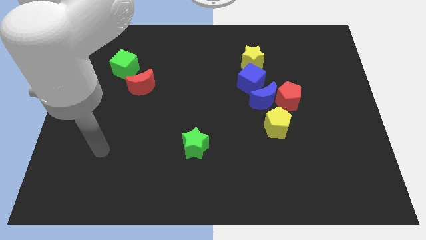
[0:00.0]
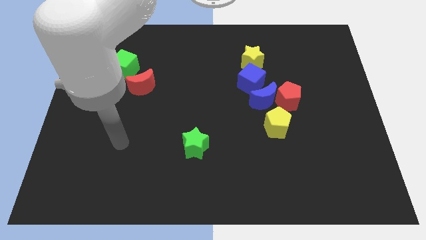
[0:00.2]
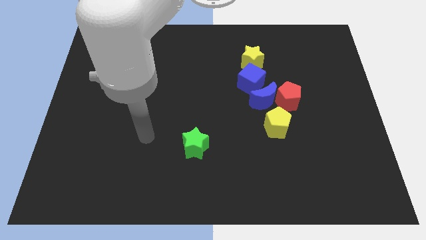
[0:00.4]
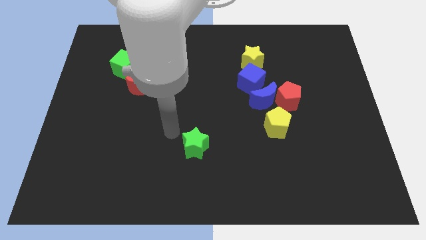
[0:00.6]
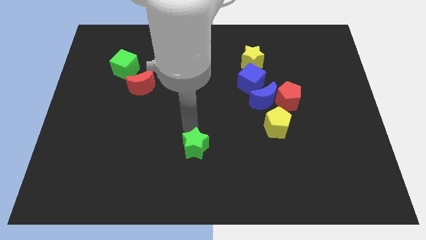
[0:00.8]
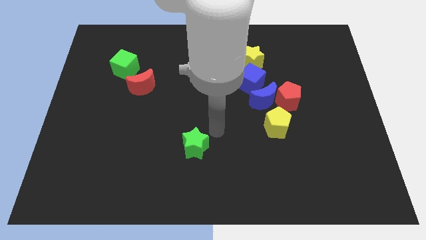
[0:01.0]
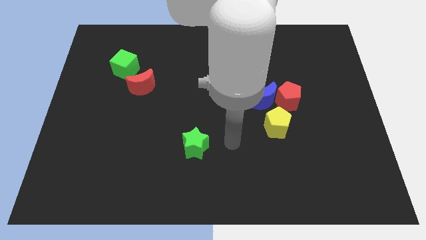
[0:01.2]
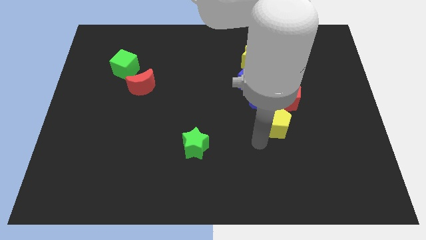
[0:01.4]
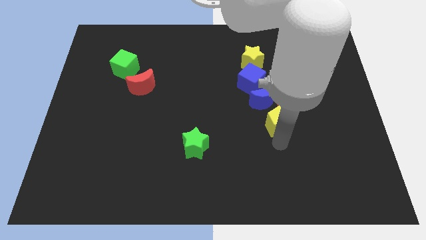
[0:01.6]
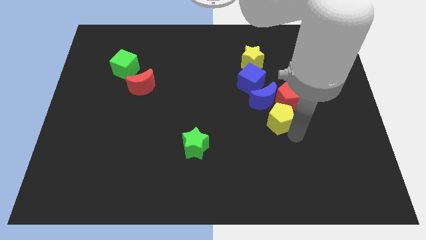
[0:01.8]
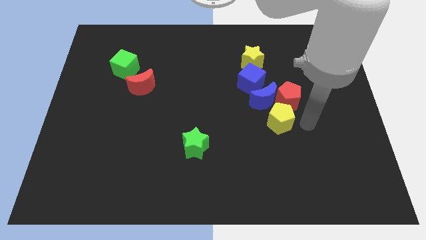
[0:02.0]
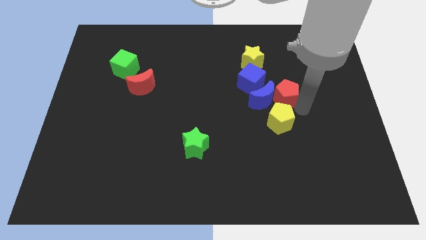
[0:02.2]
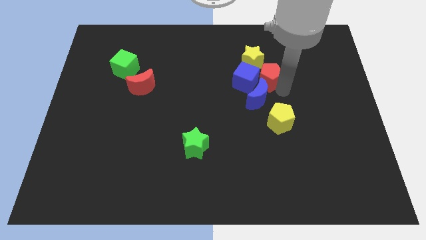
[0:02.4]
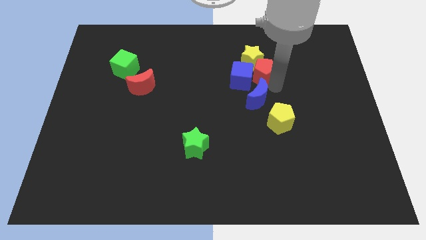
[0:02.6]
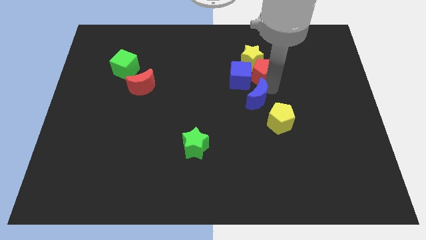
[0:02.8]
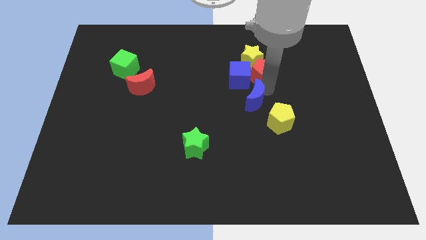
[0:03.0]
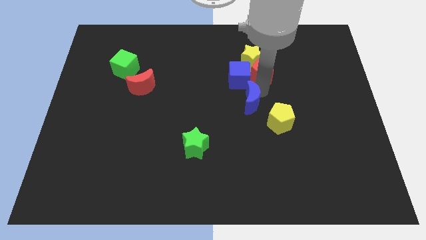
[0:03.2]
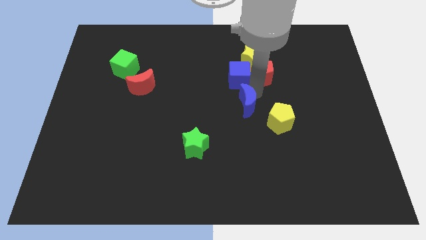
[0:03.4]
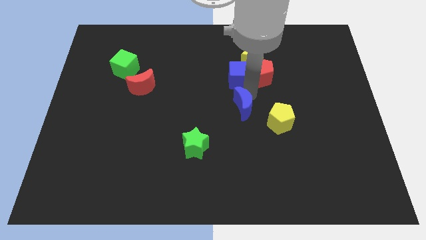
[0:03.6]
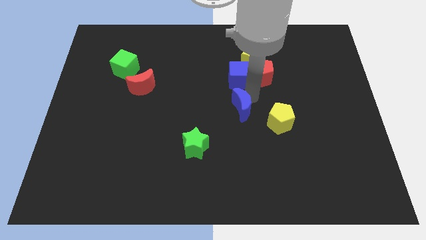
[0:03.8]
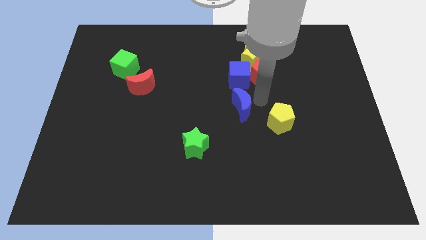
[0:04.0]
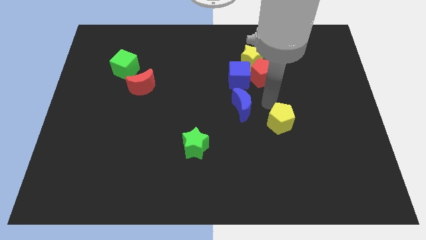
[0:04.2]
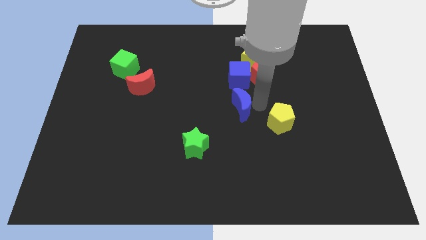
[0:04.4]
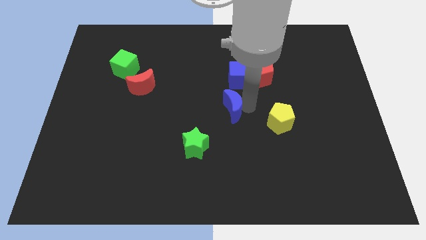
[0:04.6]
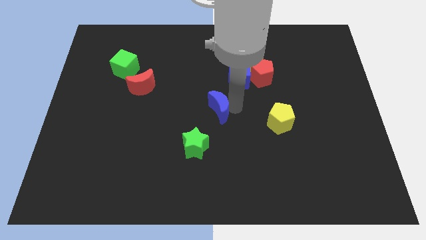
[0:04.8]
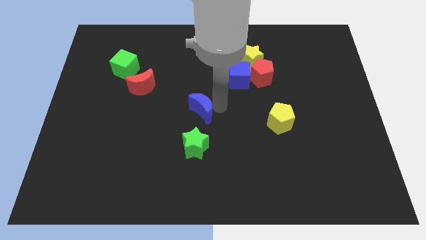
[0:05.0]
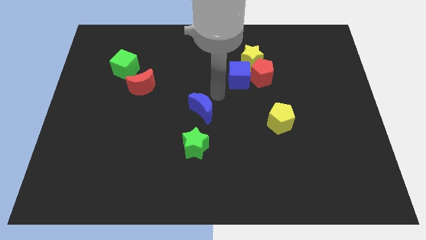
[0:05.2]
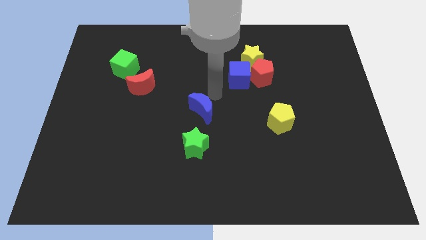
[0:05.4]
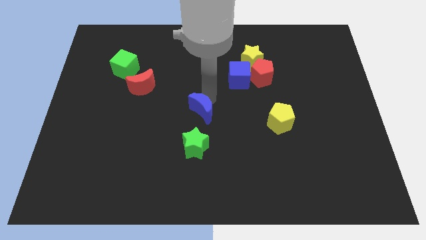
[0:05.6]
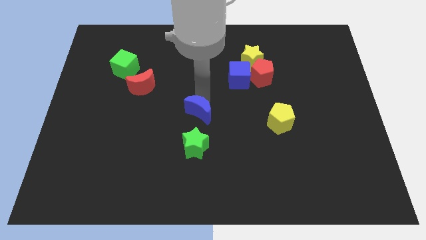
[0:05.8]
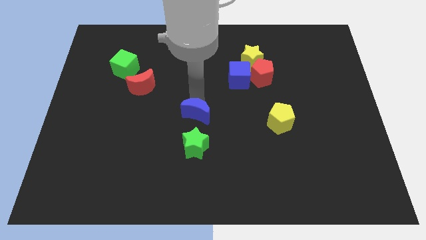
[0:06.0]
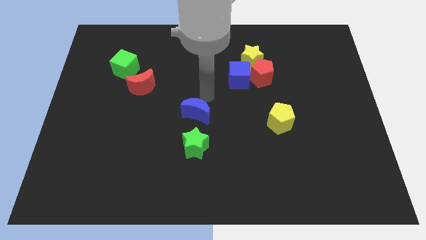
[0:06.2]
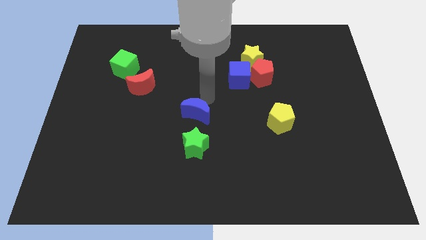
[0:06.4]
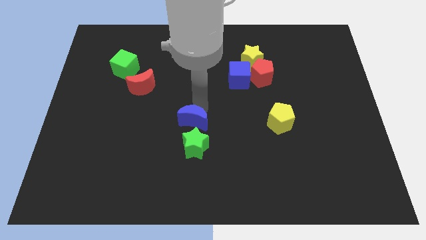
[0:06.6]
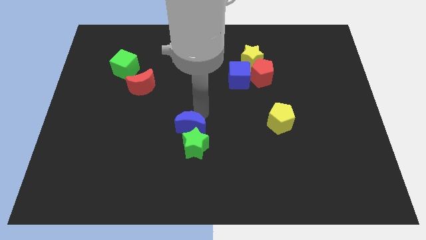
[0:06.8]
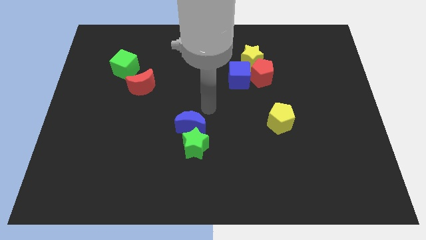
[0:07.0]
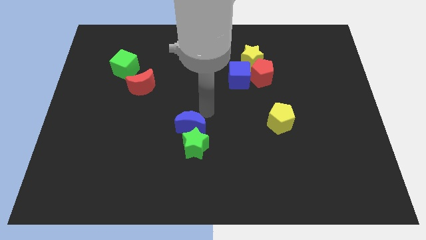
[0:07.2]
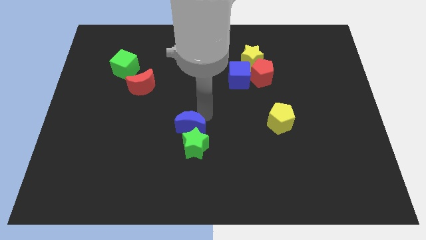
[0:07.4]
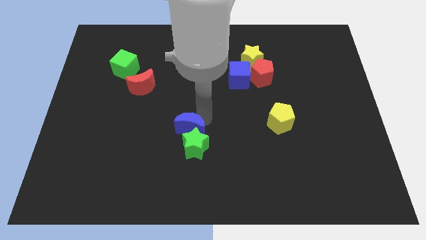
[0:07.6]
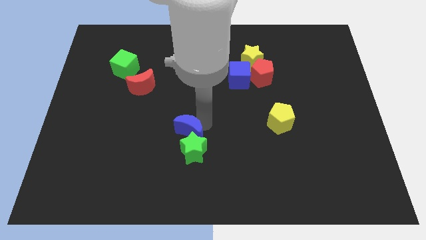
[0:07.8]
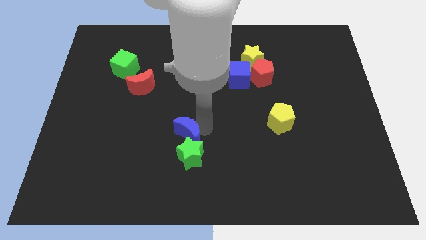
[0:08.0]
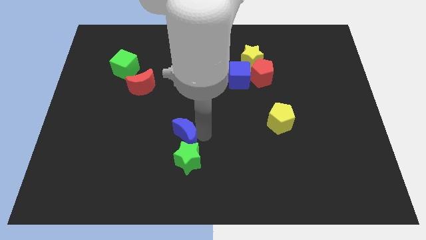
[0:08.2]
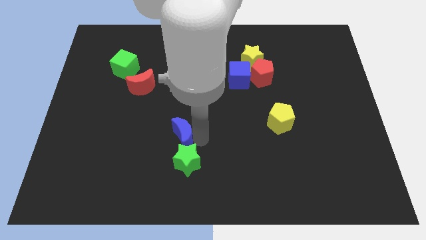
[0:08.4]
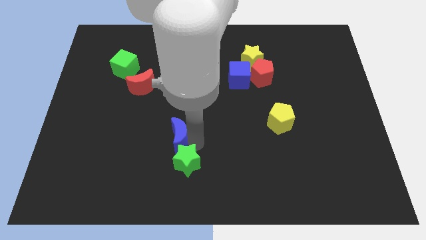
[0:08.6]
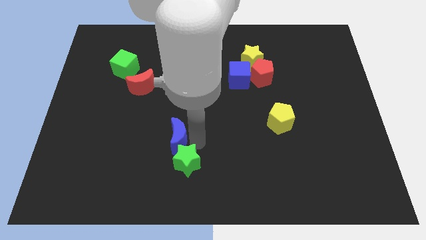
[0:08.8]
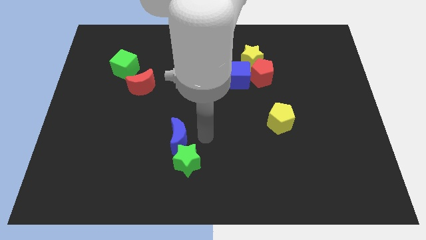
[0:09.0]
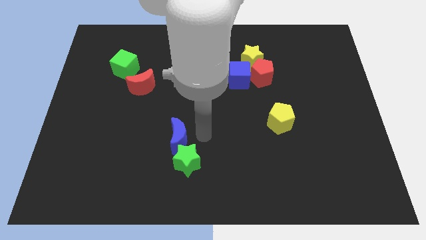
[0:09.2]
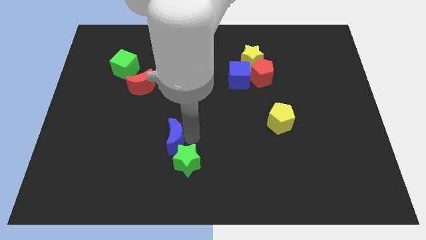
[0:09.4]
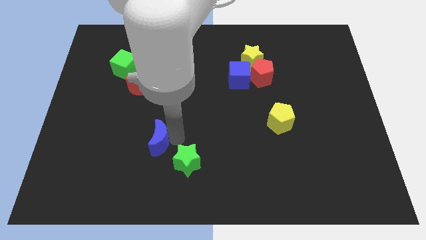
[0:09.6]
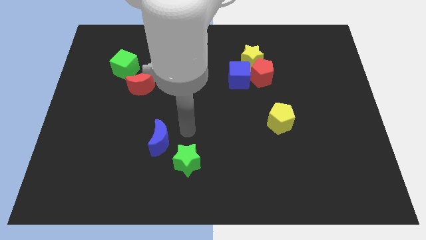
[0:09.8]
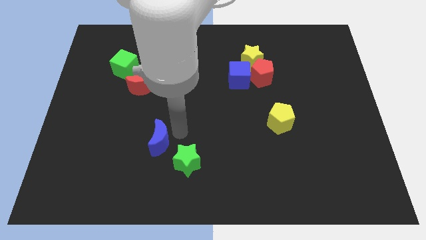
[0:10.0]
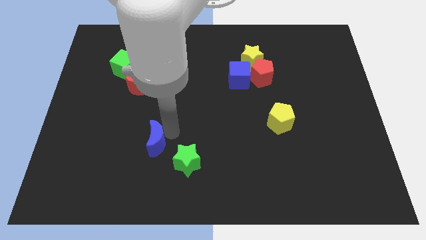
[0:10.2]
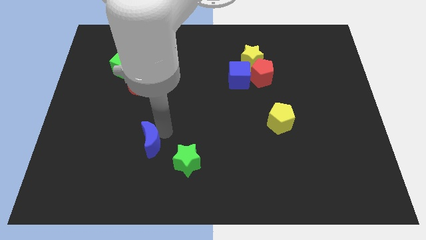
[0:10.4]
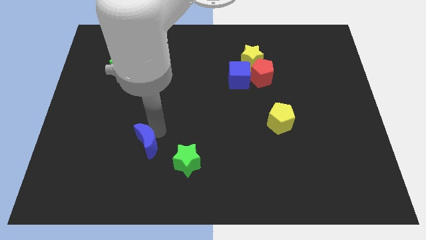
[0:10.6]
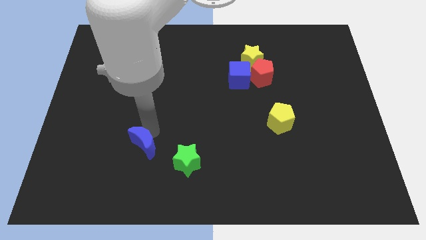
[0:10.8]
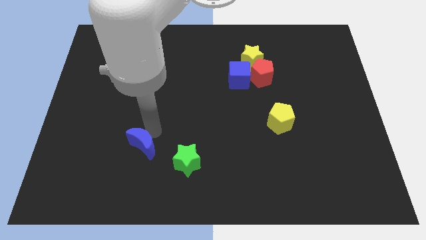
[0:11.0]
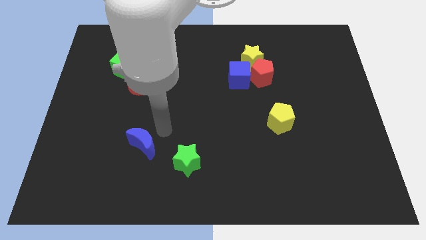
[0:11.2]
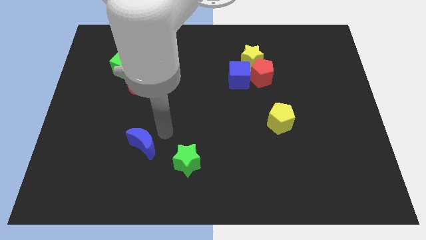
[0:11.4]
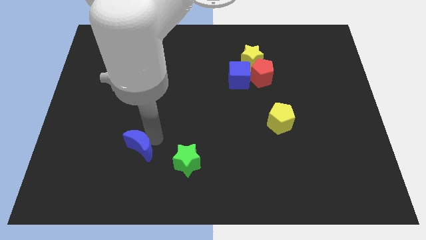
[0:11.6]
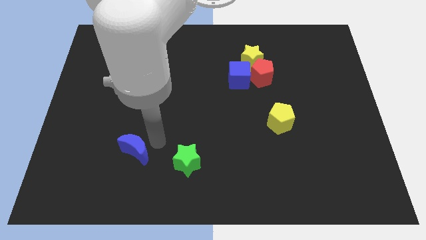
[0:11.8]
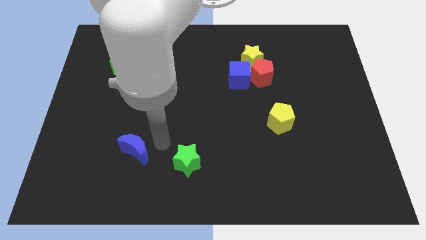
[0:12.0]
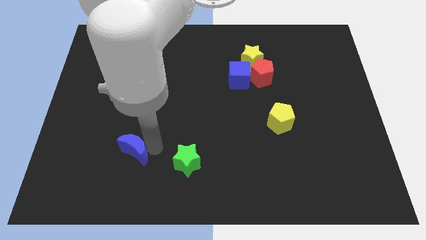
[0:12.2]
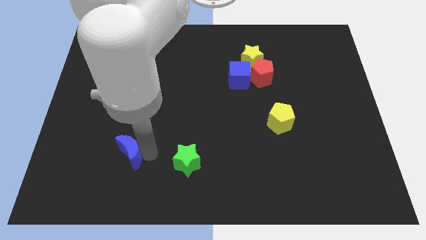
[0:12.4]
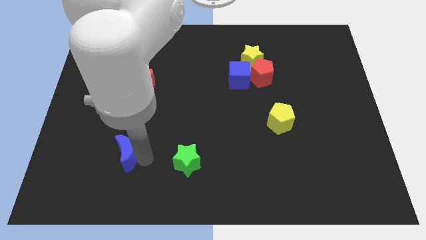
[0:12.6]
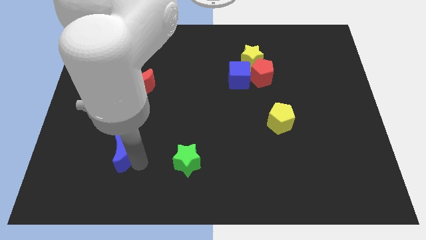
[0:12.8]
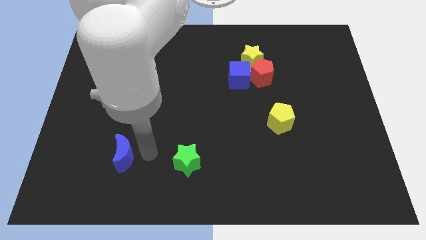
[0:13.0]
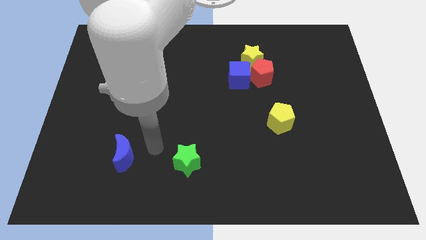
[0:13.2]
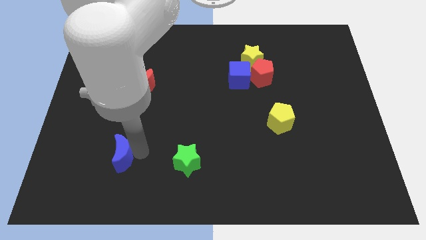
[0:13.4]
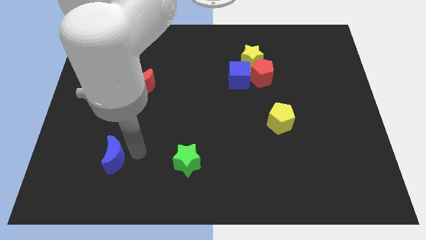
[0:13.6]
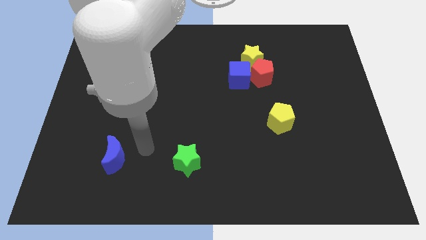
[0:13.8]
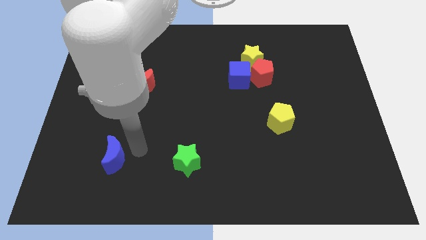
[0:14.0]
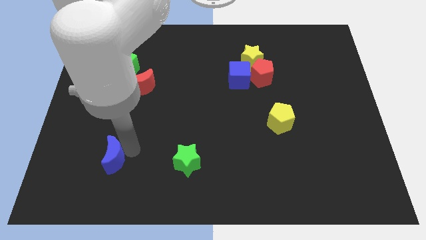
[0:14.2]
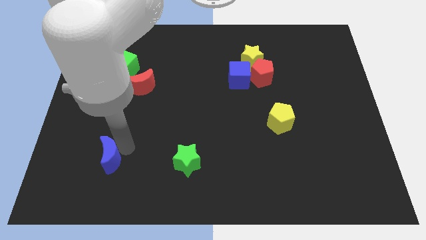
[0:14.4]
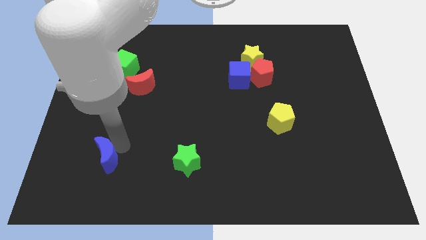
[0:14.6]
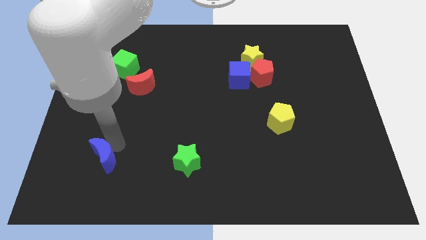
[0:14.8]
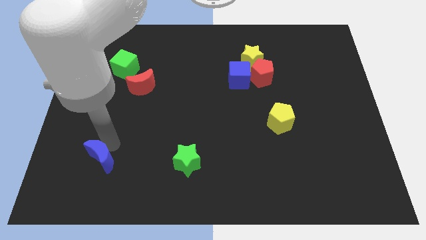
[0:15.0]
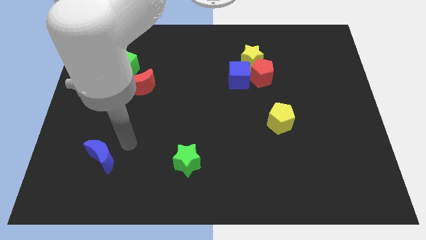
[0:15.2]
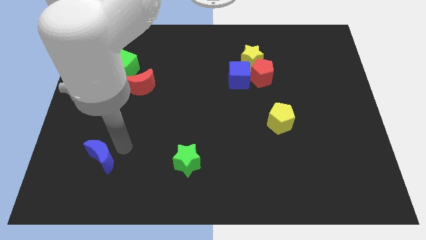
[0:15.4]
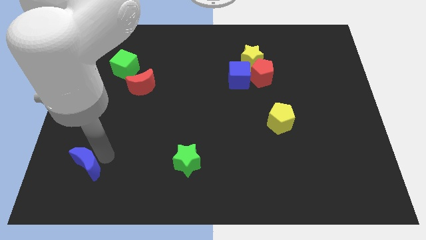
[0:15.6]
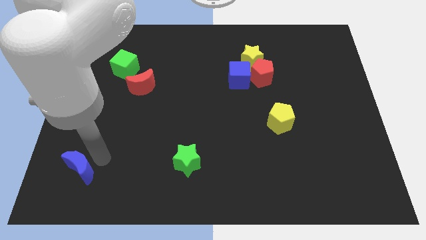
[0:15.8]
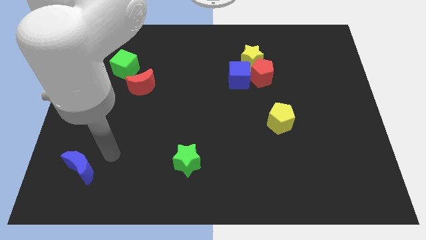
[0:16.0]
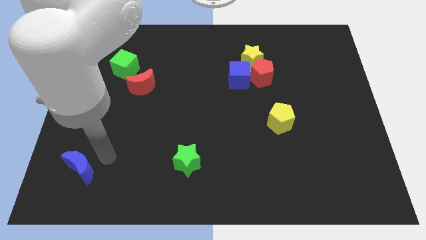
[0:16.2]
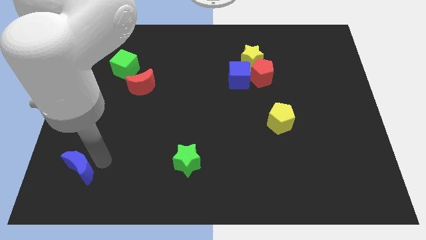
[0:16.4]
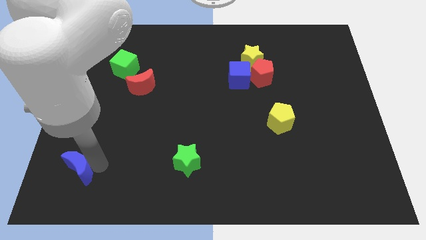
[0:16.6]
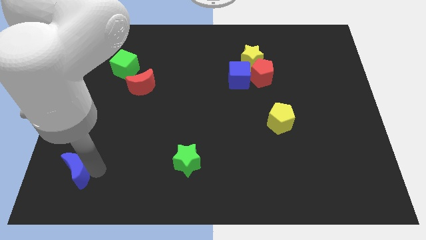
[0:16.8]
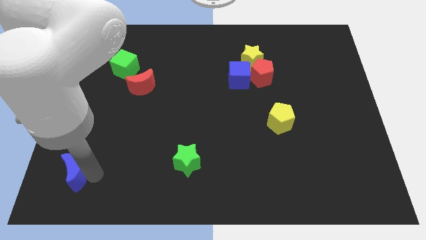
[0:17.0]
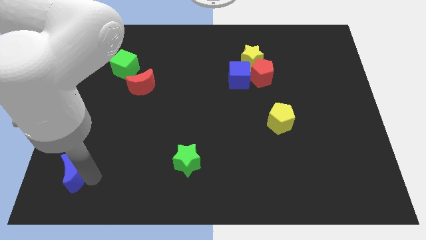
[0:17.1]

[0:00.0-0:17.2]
move the blue moon to the bottom left
